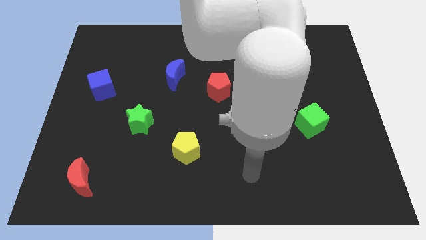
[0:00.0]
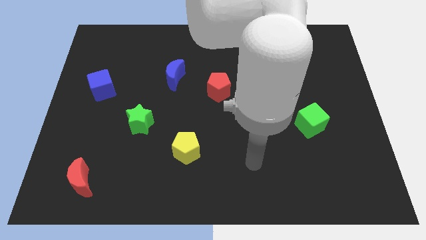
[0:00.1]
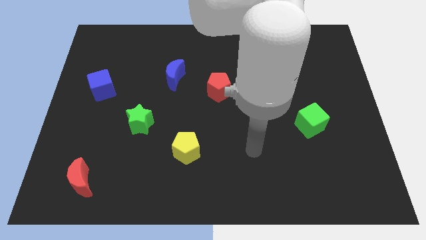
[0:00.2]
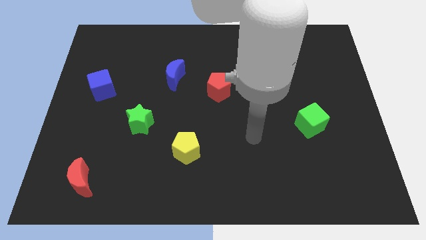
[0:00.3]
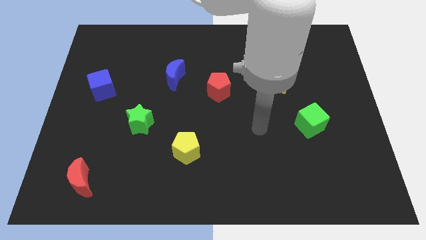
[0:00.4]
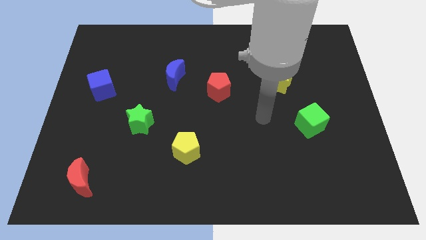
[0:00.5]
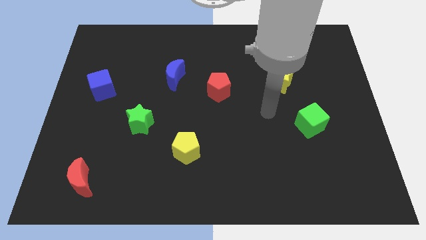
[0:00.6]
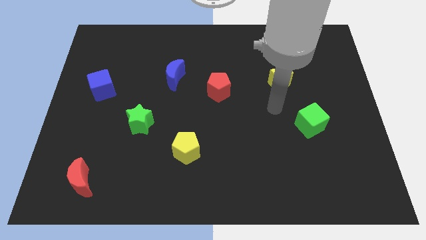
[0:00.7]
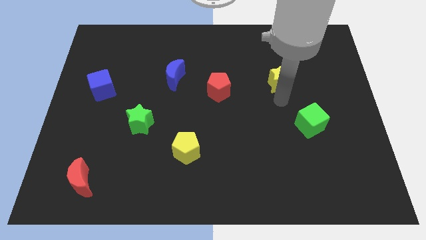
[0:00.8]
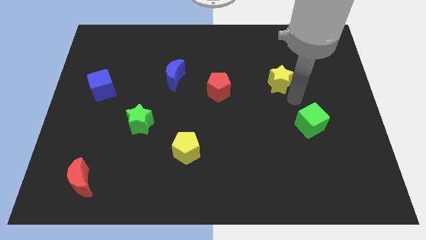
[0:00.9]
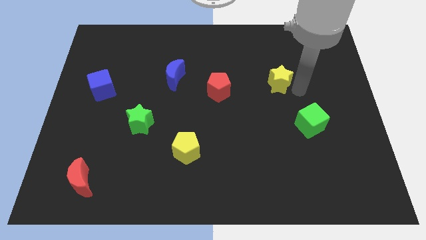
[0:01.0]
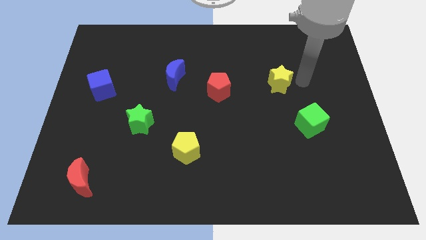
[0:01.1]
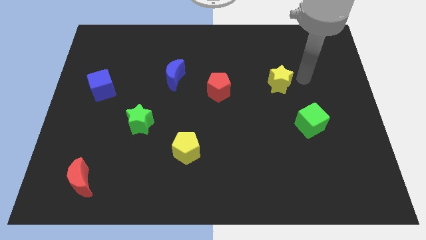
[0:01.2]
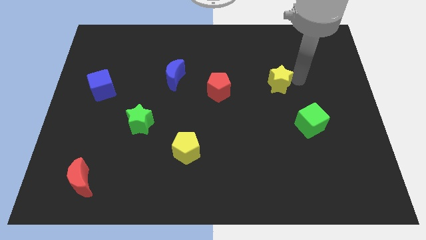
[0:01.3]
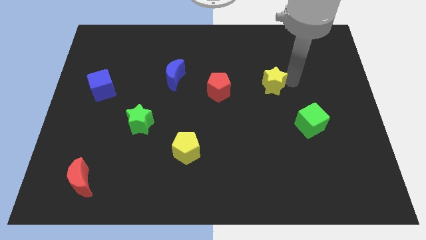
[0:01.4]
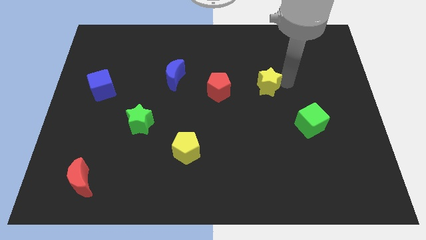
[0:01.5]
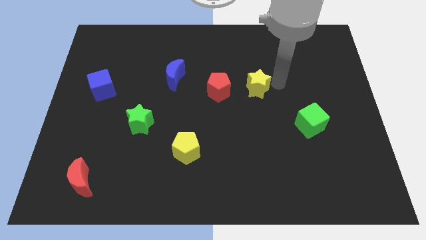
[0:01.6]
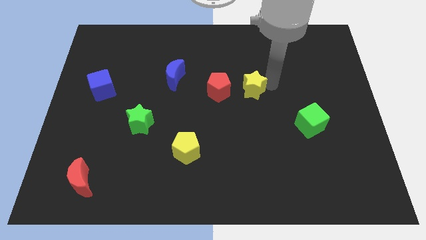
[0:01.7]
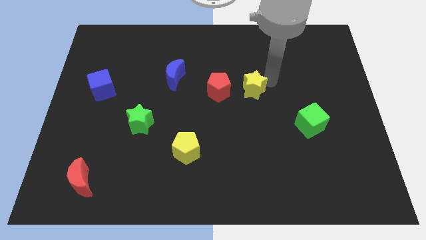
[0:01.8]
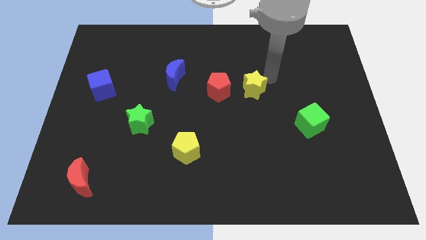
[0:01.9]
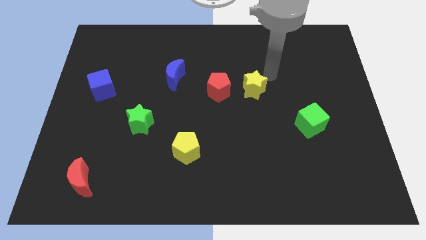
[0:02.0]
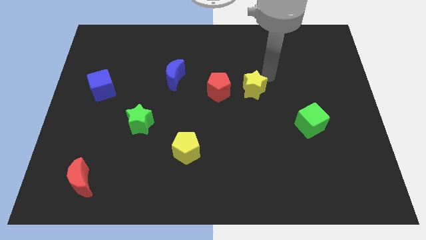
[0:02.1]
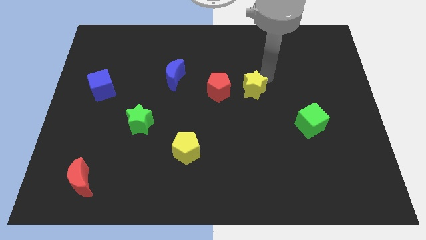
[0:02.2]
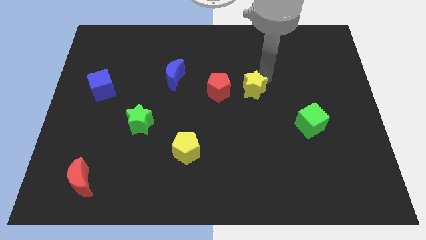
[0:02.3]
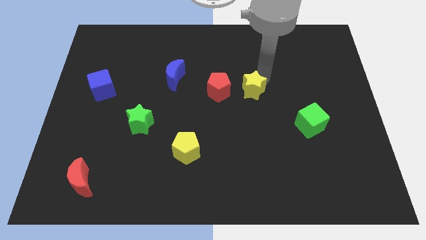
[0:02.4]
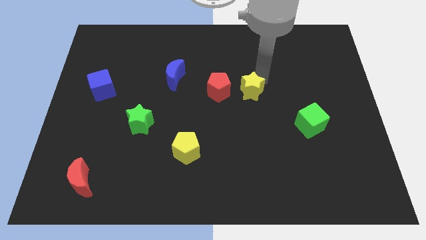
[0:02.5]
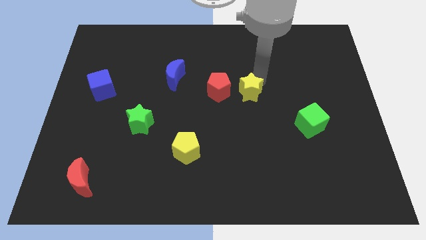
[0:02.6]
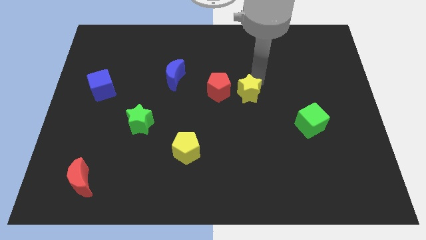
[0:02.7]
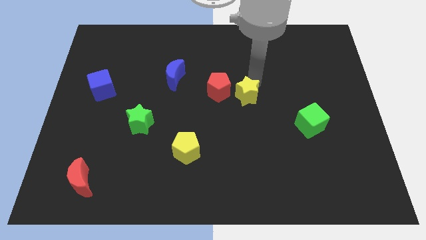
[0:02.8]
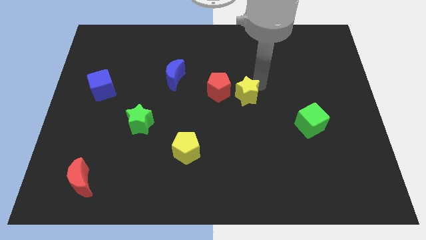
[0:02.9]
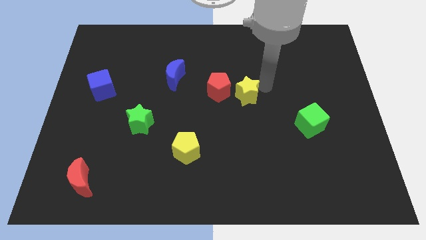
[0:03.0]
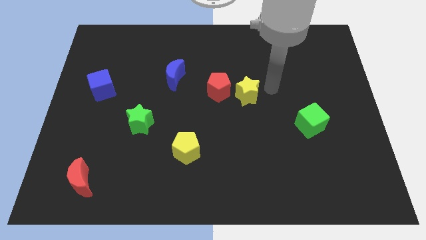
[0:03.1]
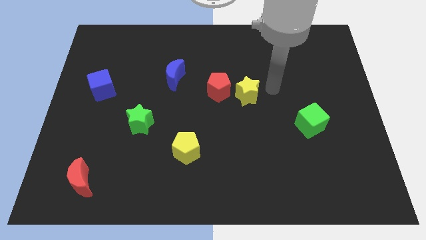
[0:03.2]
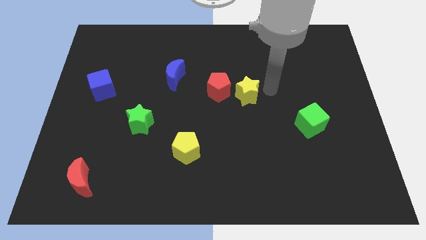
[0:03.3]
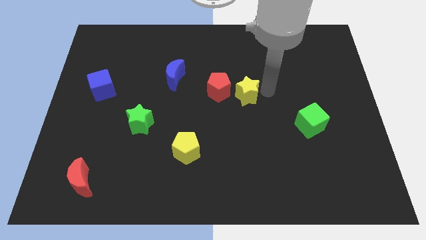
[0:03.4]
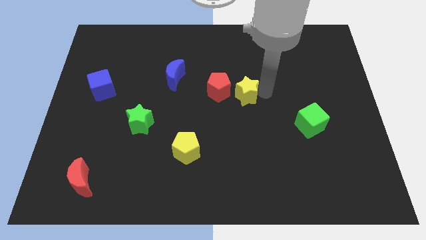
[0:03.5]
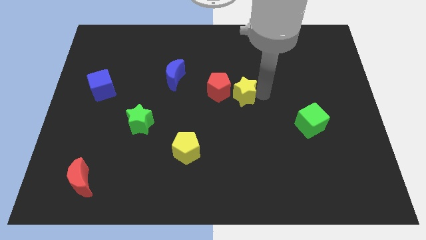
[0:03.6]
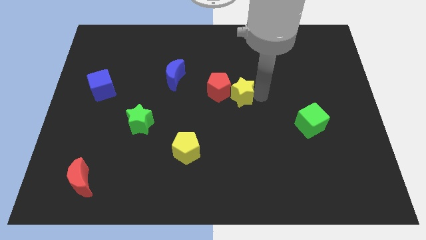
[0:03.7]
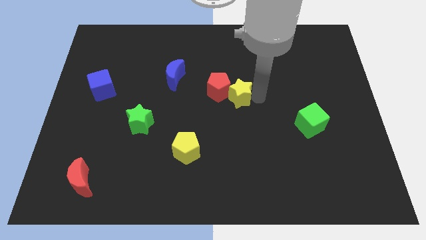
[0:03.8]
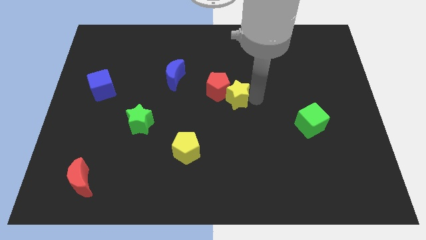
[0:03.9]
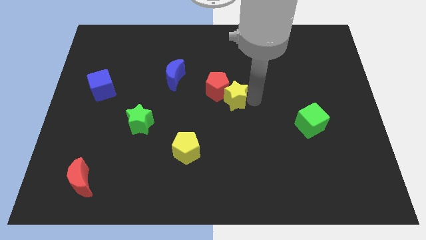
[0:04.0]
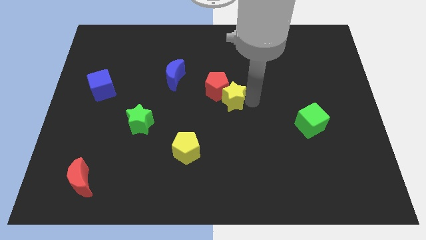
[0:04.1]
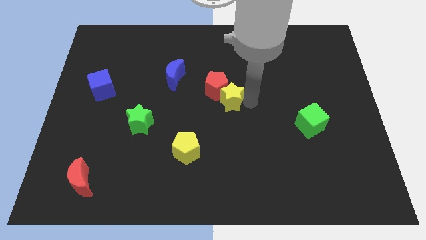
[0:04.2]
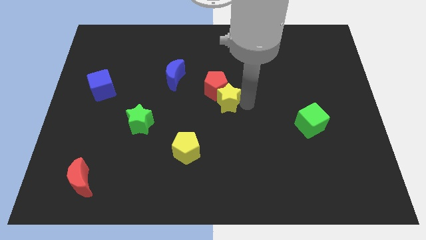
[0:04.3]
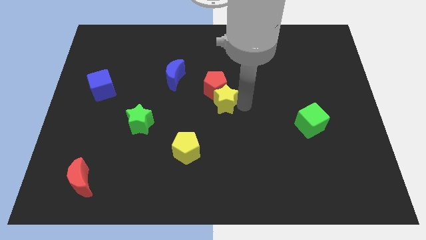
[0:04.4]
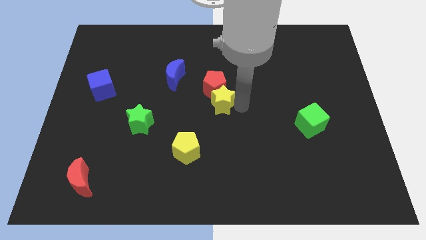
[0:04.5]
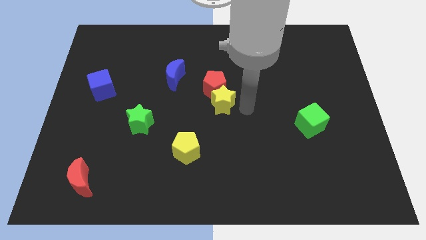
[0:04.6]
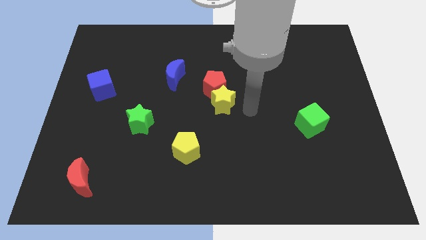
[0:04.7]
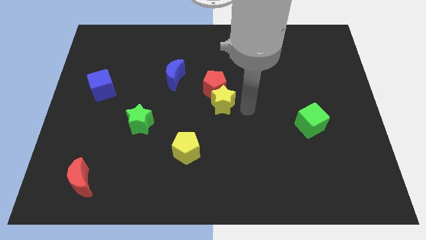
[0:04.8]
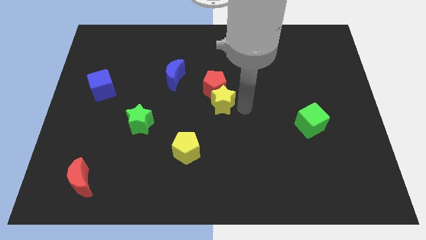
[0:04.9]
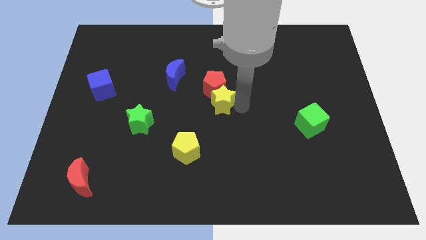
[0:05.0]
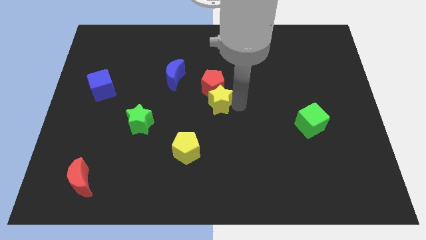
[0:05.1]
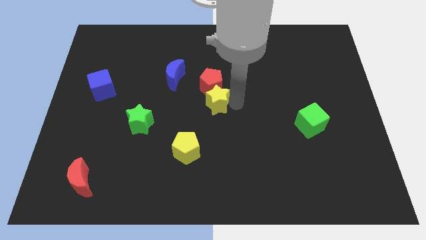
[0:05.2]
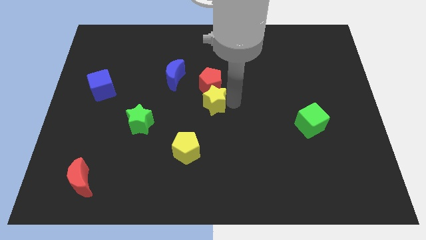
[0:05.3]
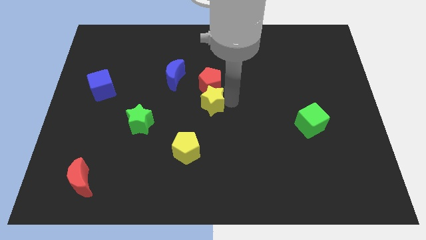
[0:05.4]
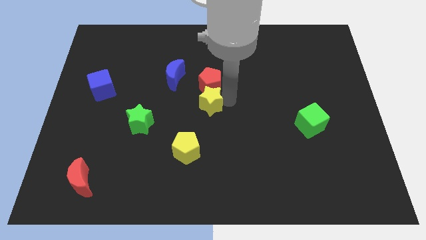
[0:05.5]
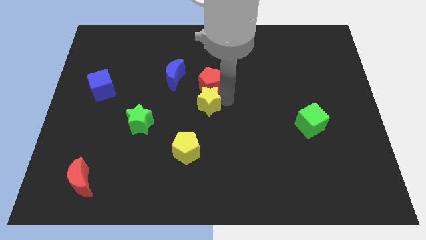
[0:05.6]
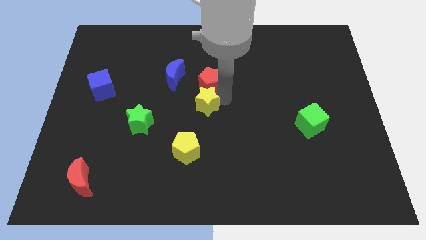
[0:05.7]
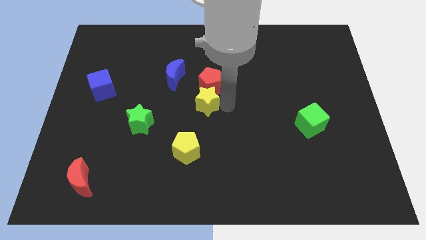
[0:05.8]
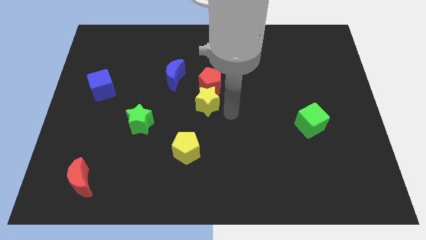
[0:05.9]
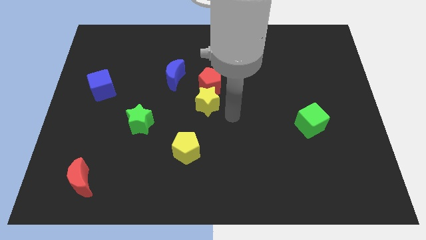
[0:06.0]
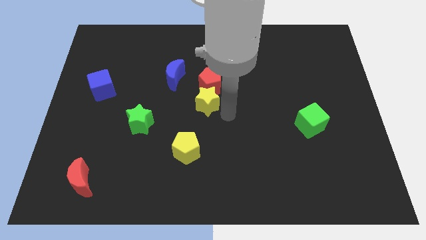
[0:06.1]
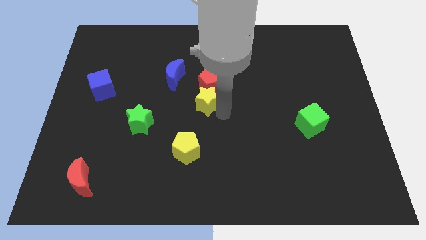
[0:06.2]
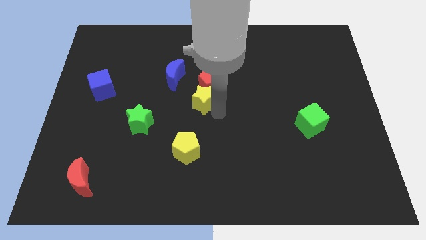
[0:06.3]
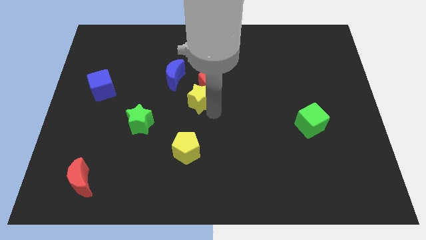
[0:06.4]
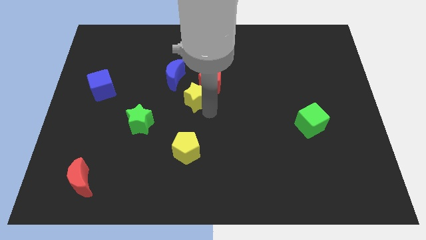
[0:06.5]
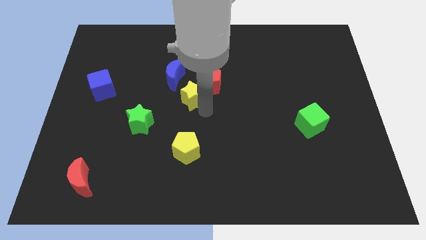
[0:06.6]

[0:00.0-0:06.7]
put the yellow star to the left of the red pentagon
